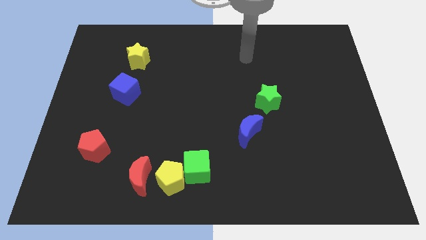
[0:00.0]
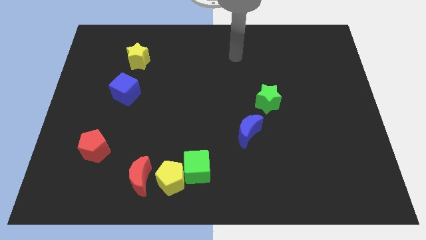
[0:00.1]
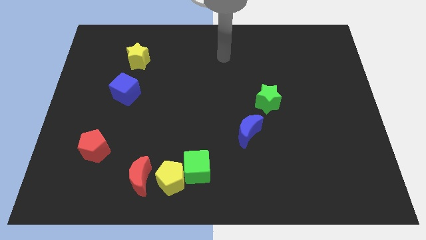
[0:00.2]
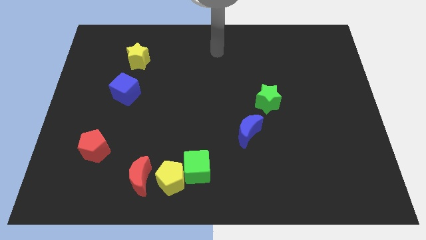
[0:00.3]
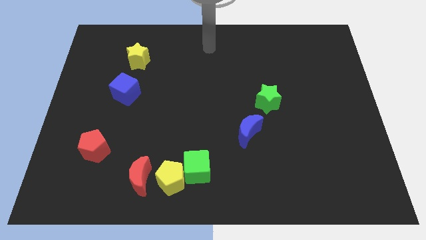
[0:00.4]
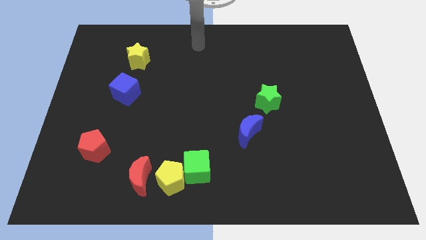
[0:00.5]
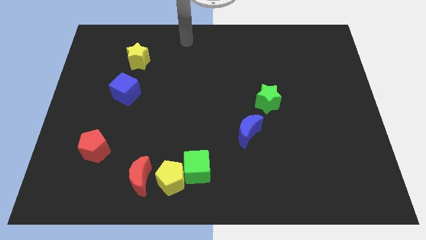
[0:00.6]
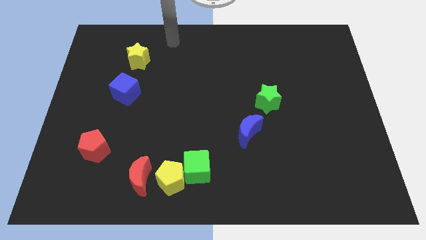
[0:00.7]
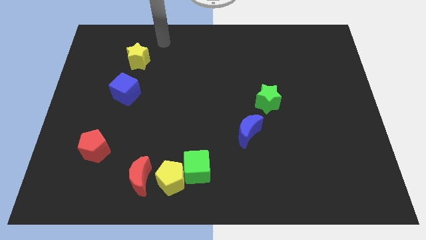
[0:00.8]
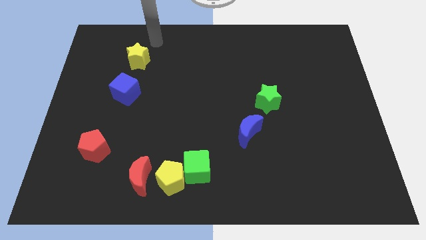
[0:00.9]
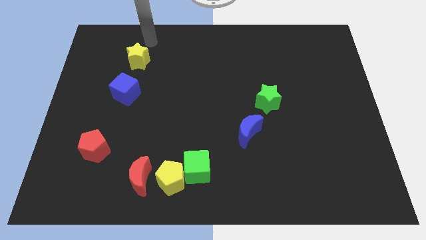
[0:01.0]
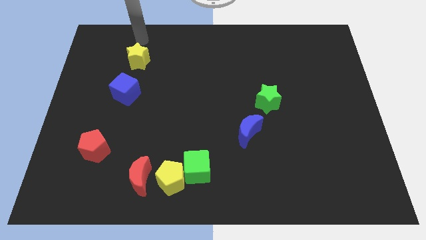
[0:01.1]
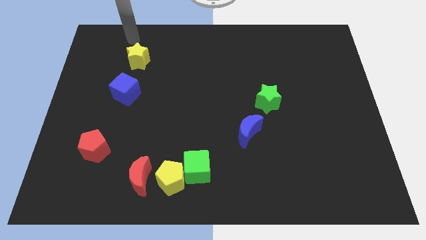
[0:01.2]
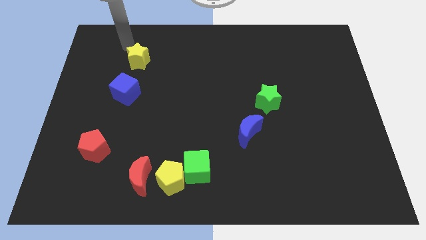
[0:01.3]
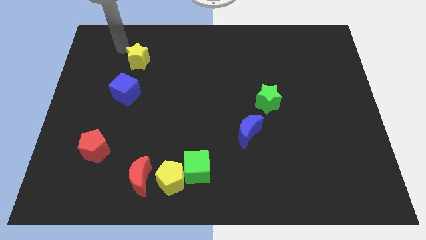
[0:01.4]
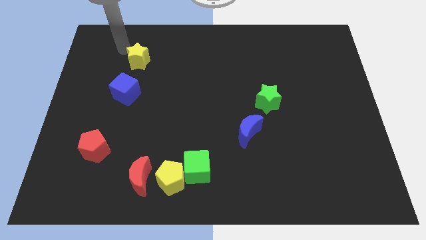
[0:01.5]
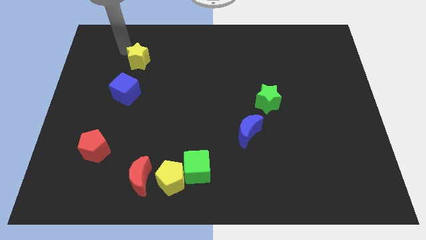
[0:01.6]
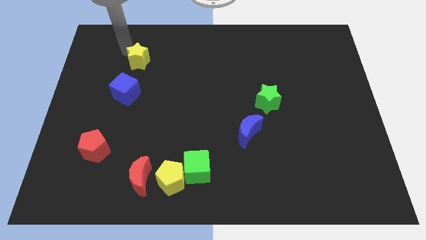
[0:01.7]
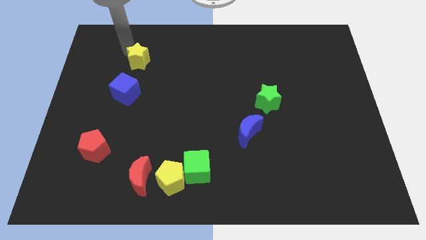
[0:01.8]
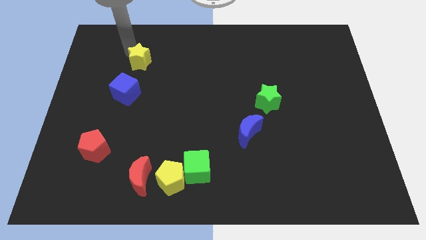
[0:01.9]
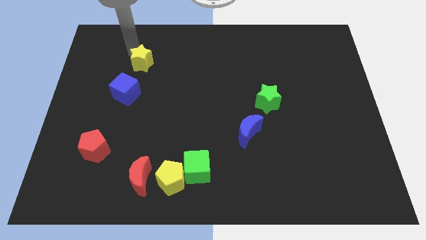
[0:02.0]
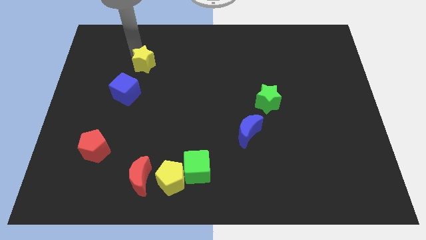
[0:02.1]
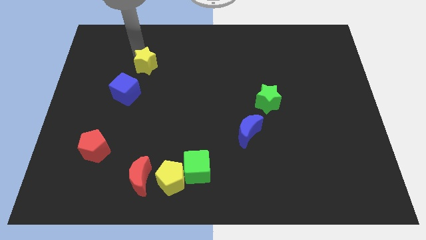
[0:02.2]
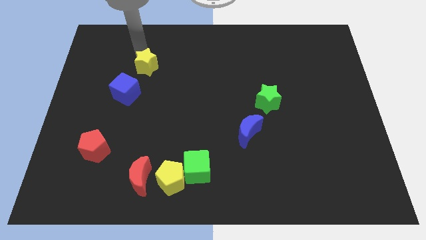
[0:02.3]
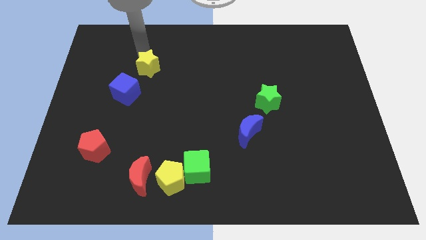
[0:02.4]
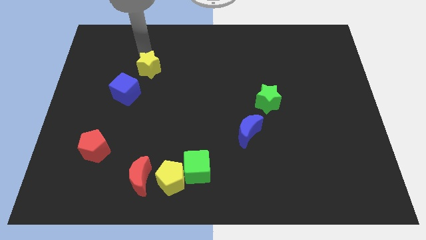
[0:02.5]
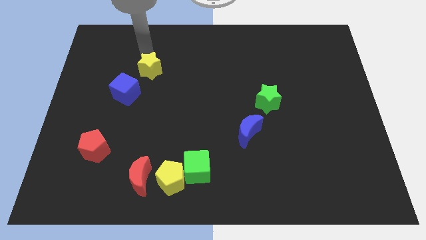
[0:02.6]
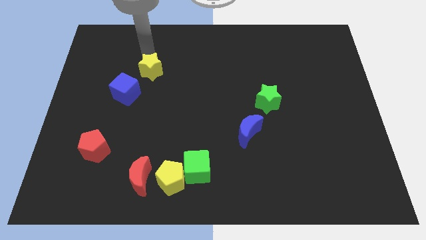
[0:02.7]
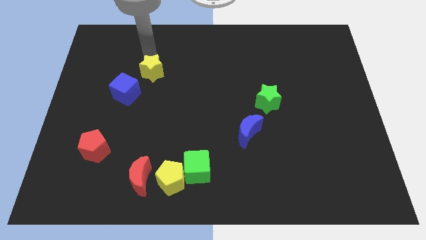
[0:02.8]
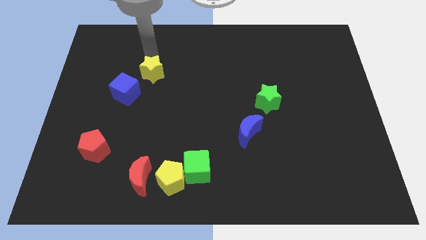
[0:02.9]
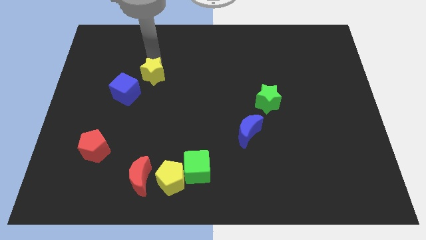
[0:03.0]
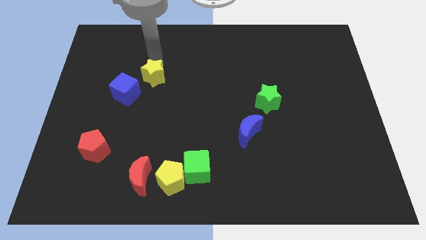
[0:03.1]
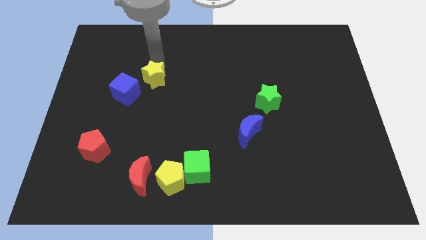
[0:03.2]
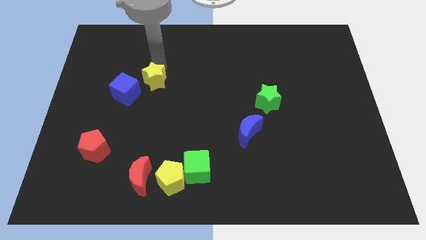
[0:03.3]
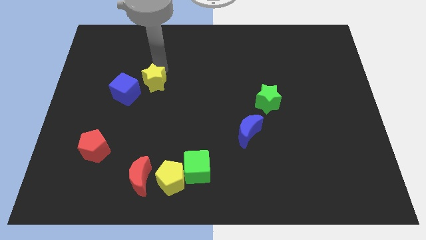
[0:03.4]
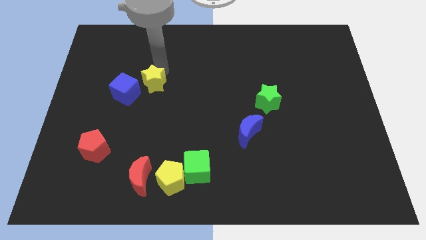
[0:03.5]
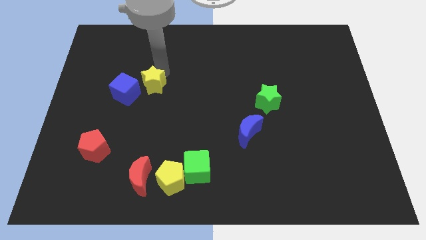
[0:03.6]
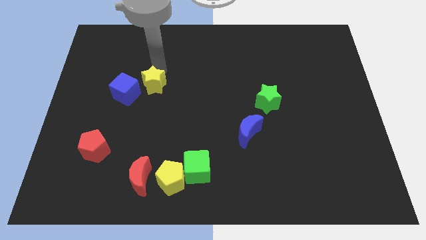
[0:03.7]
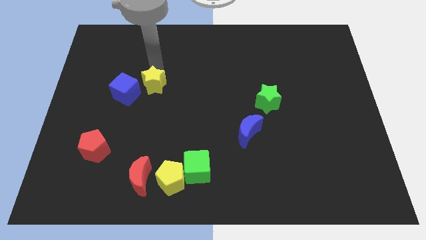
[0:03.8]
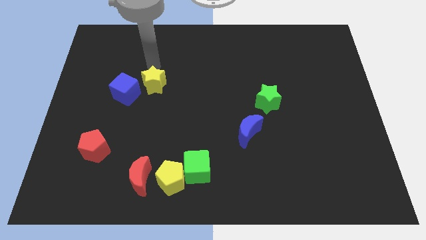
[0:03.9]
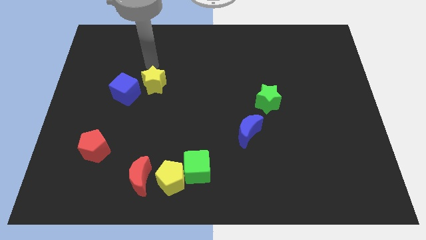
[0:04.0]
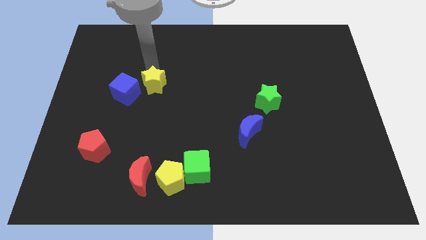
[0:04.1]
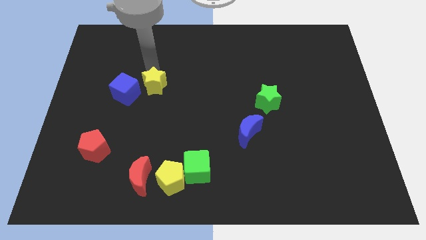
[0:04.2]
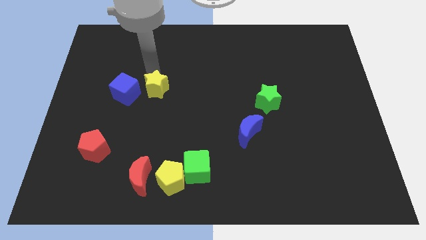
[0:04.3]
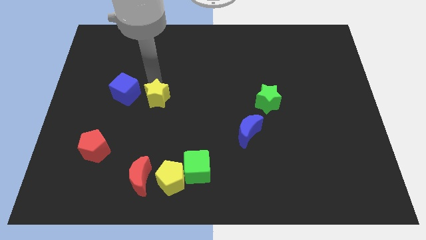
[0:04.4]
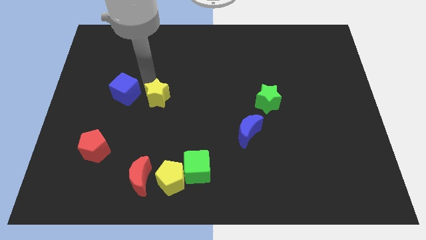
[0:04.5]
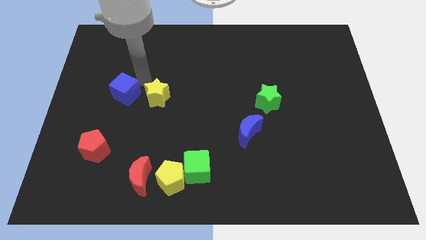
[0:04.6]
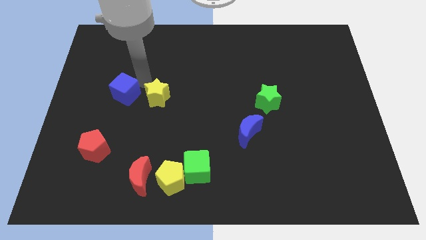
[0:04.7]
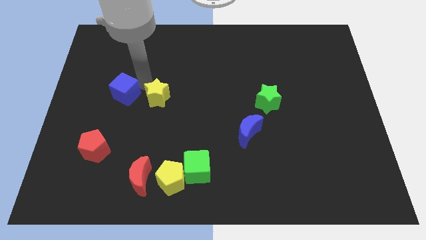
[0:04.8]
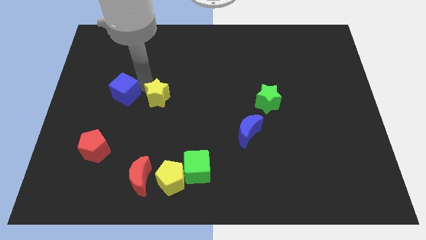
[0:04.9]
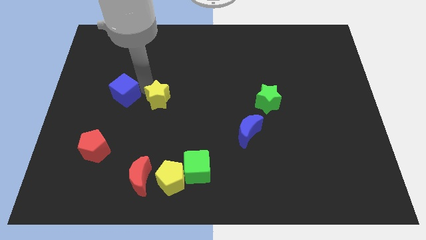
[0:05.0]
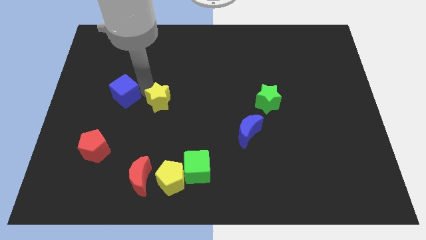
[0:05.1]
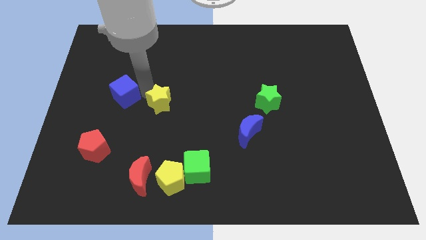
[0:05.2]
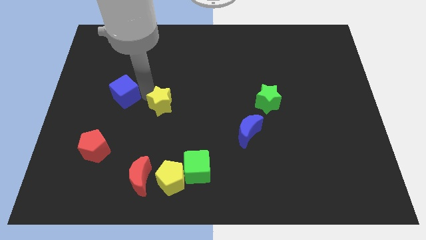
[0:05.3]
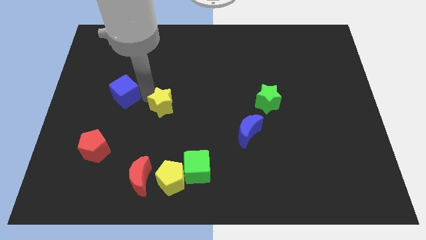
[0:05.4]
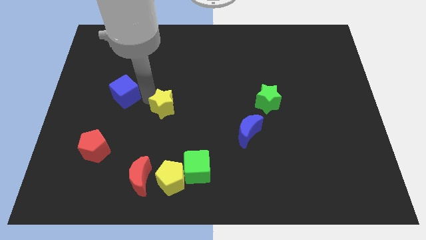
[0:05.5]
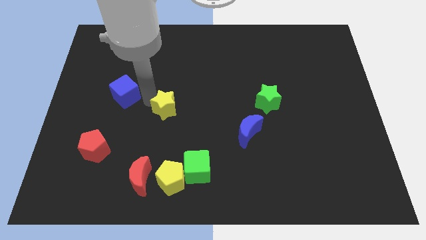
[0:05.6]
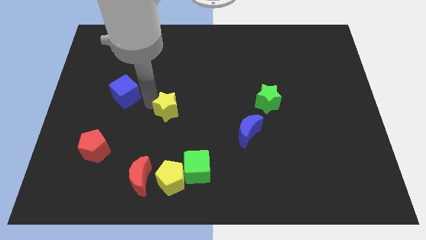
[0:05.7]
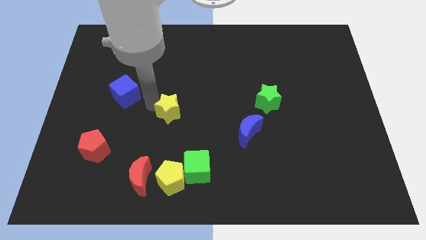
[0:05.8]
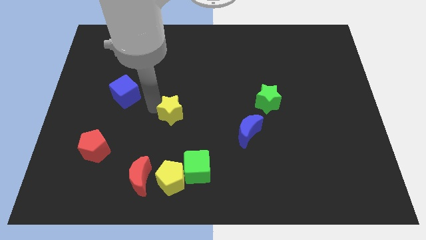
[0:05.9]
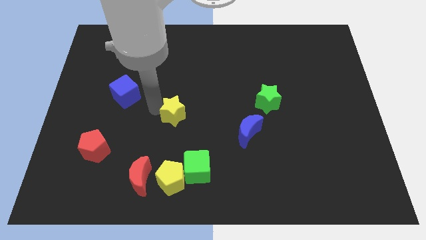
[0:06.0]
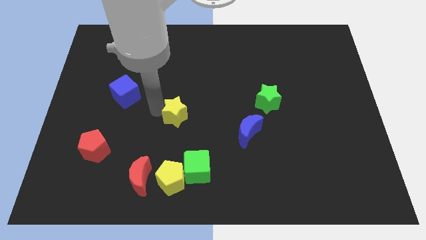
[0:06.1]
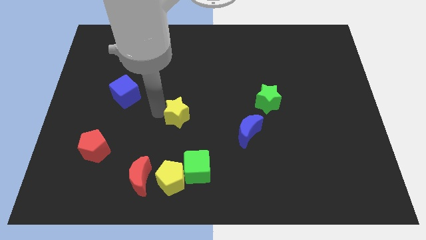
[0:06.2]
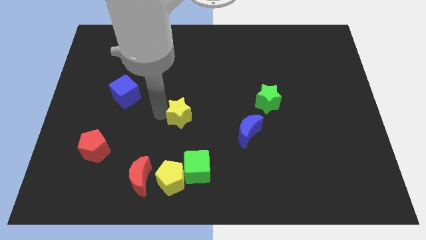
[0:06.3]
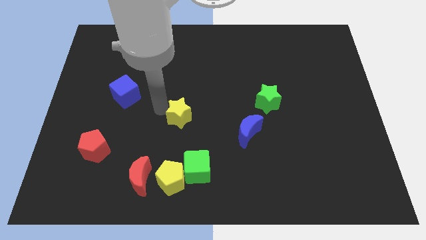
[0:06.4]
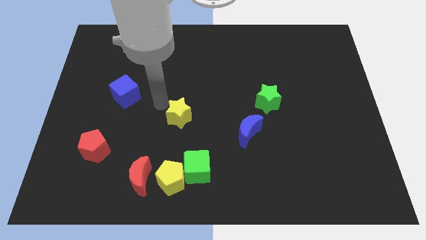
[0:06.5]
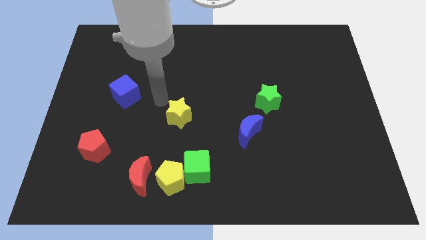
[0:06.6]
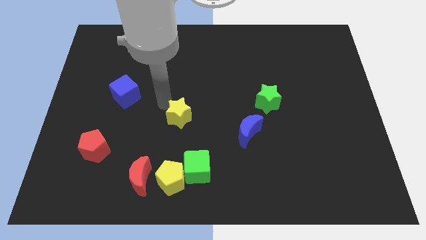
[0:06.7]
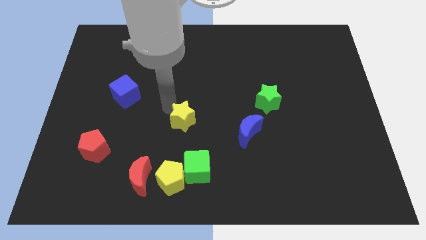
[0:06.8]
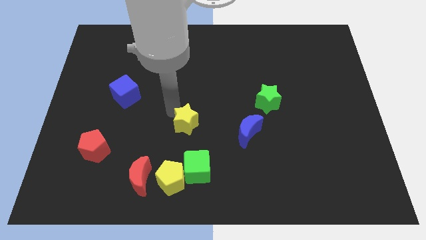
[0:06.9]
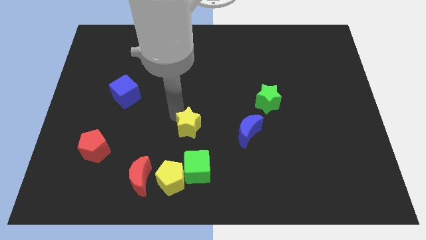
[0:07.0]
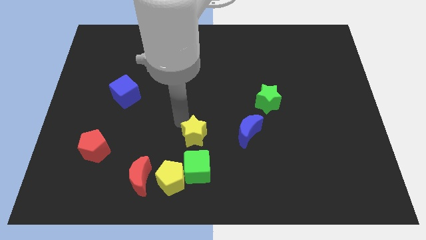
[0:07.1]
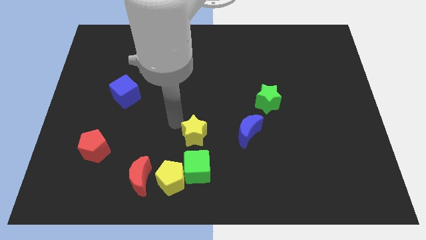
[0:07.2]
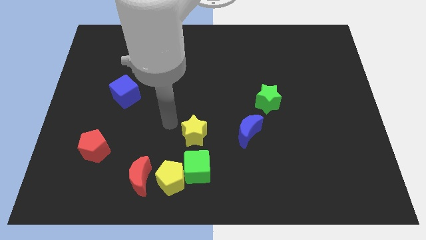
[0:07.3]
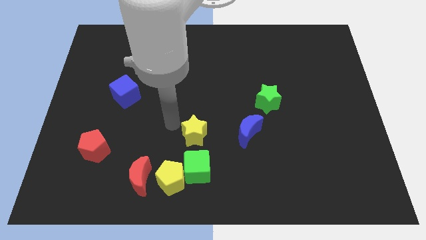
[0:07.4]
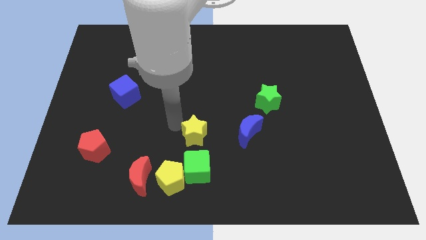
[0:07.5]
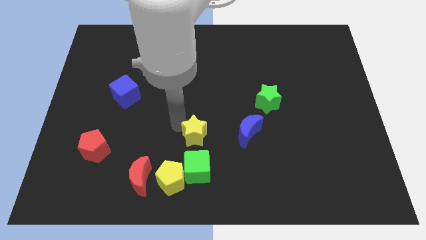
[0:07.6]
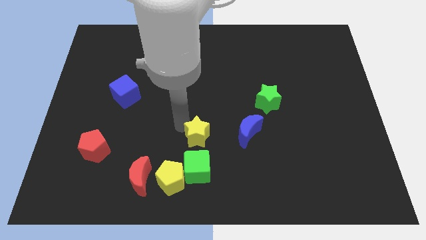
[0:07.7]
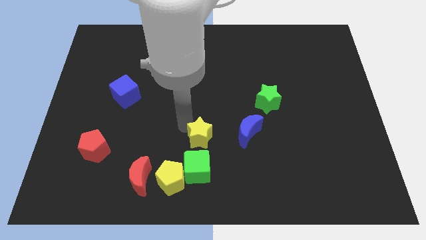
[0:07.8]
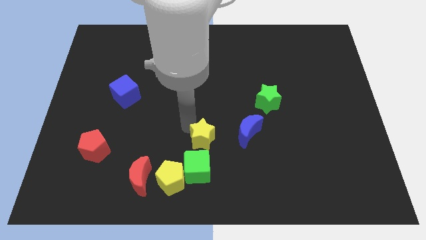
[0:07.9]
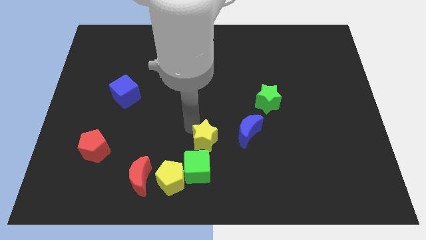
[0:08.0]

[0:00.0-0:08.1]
put the yellow star to the top right side of the green cube
